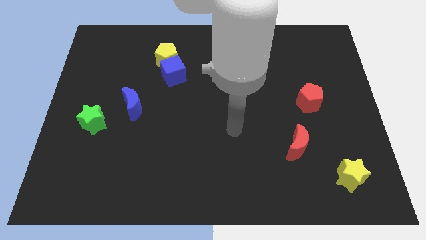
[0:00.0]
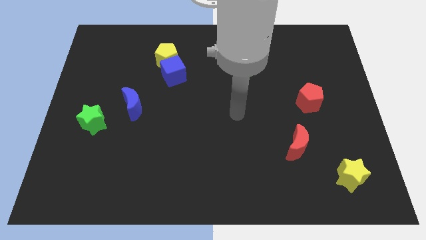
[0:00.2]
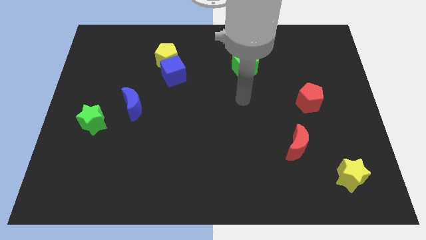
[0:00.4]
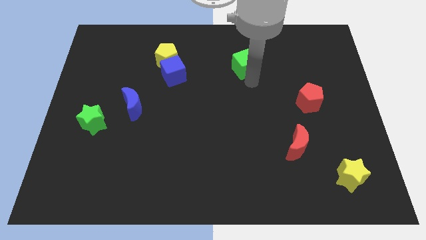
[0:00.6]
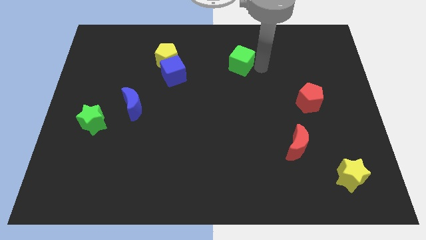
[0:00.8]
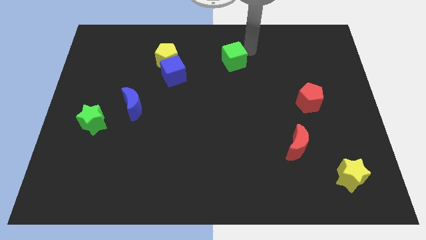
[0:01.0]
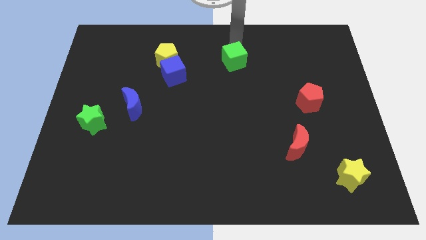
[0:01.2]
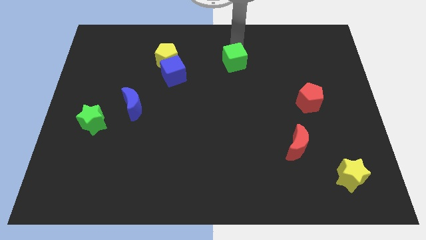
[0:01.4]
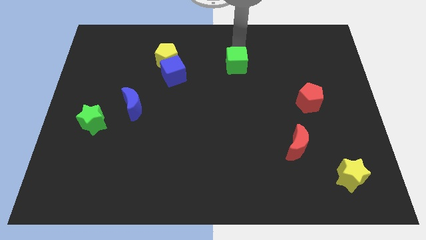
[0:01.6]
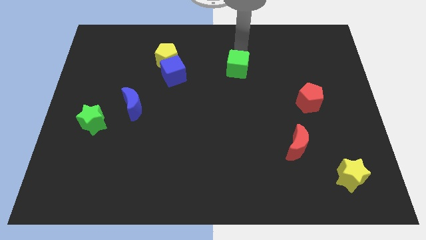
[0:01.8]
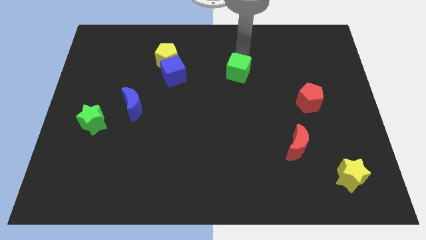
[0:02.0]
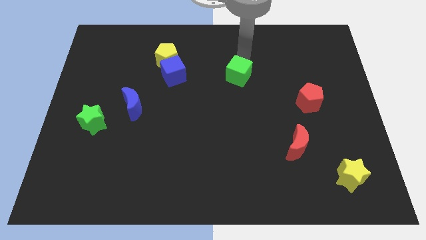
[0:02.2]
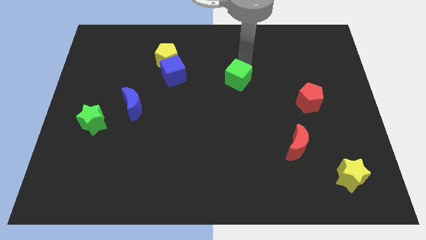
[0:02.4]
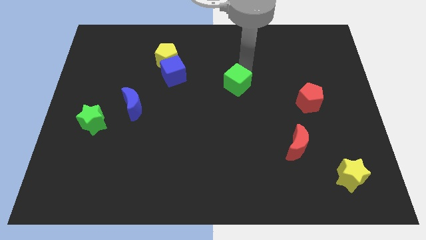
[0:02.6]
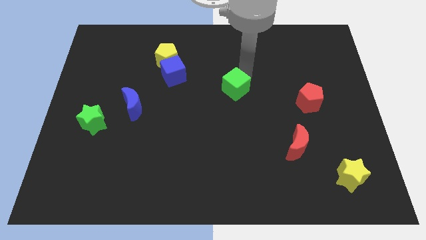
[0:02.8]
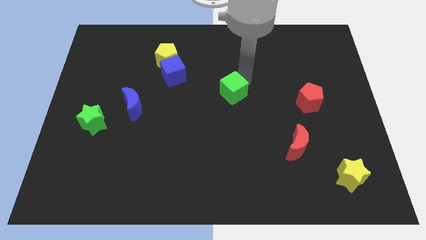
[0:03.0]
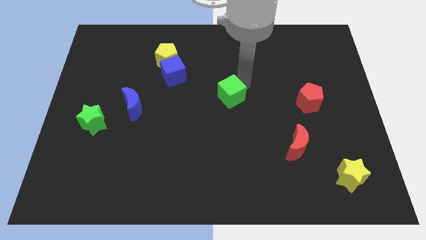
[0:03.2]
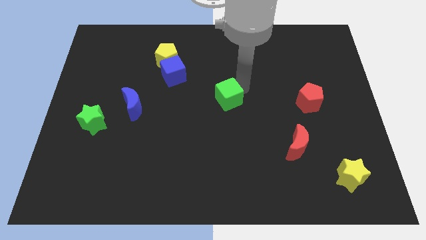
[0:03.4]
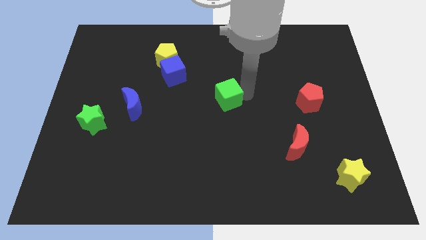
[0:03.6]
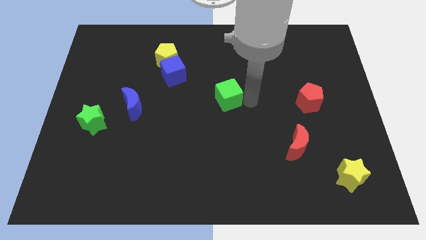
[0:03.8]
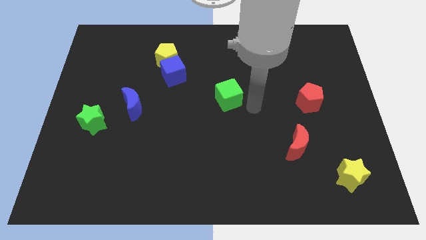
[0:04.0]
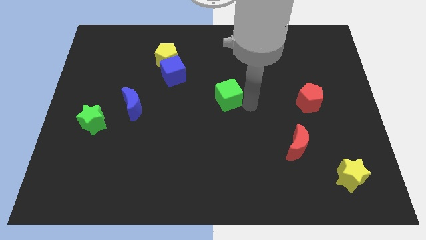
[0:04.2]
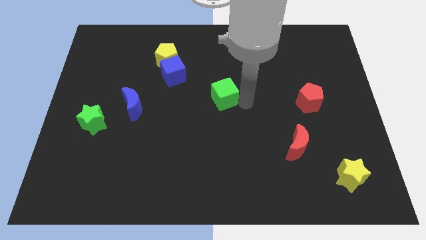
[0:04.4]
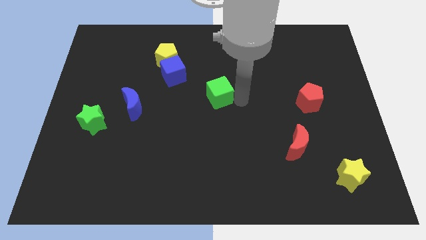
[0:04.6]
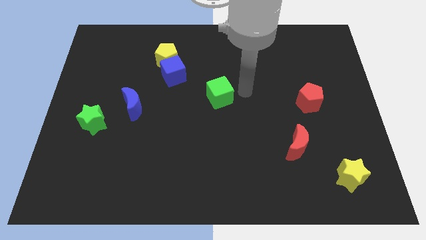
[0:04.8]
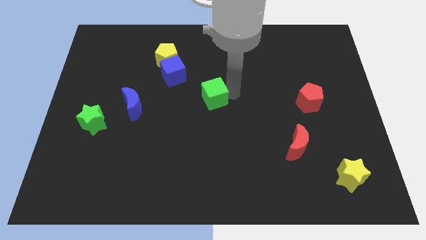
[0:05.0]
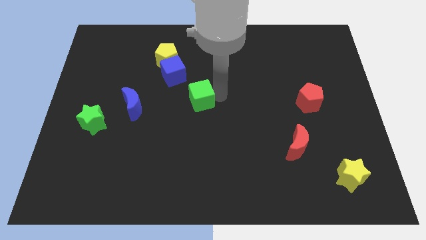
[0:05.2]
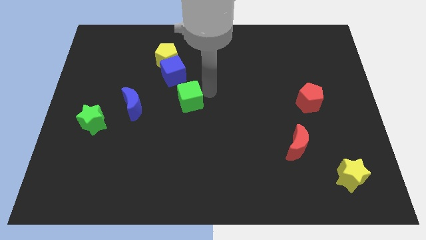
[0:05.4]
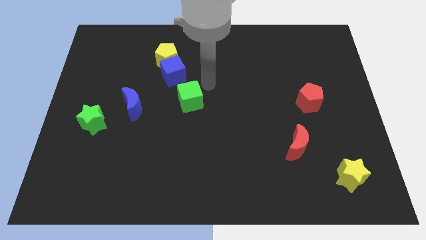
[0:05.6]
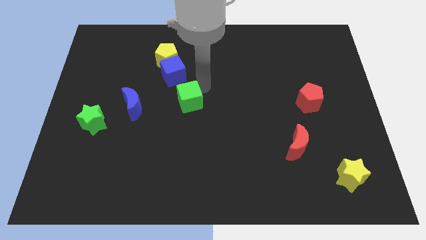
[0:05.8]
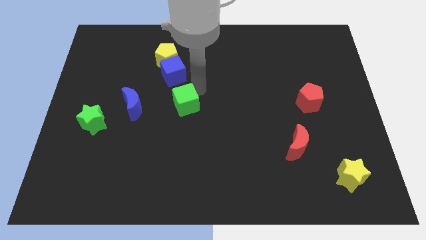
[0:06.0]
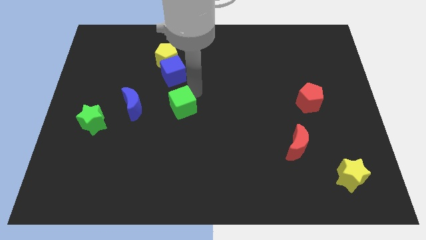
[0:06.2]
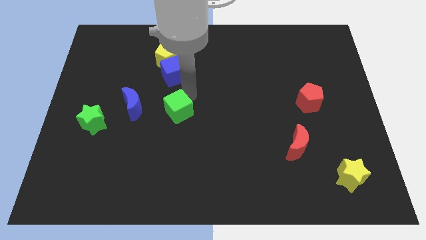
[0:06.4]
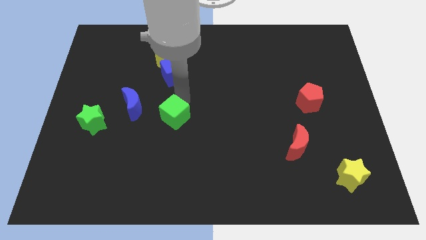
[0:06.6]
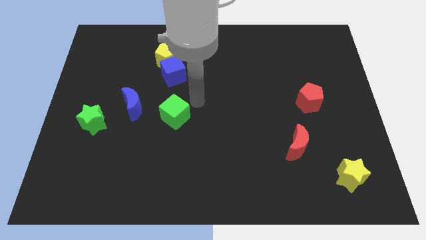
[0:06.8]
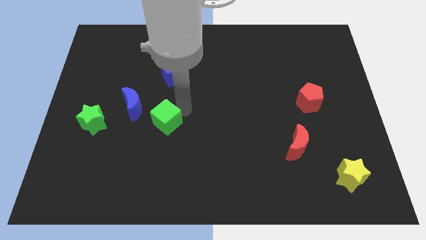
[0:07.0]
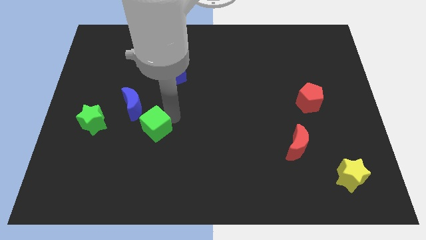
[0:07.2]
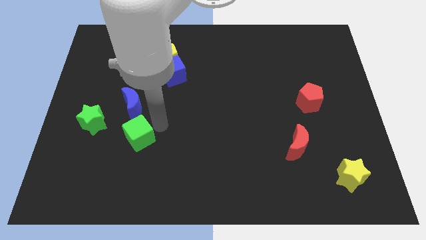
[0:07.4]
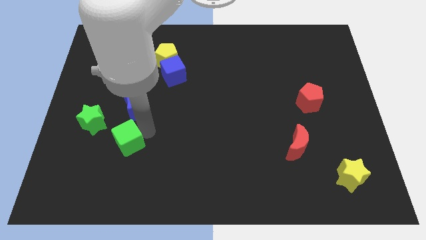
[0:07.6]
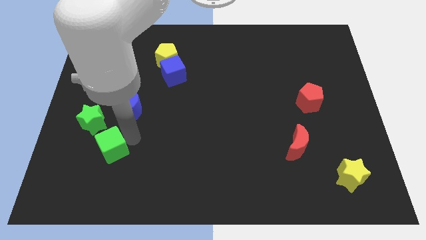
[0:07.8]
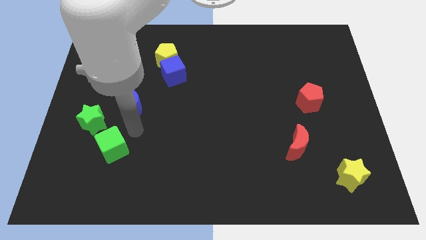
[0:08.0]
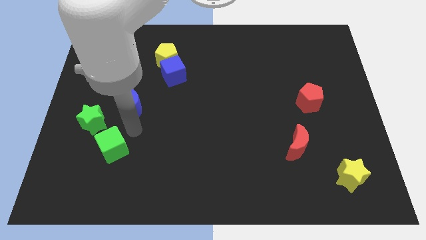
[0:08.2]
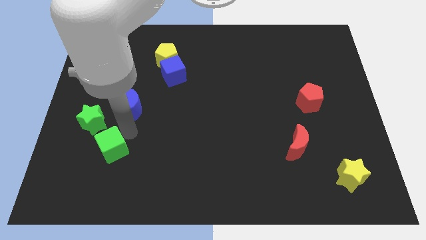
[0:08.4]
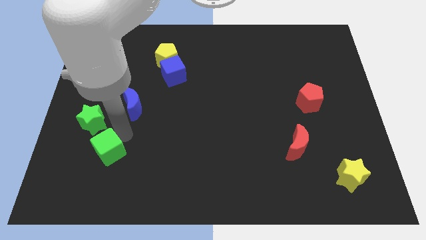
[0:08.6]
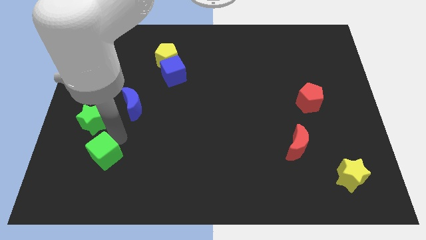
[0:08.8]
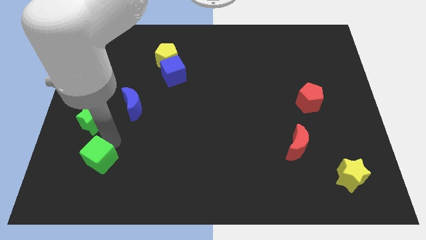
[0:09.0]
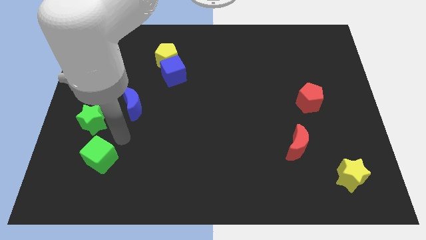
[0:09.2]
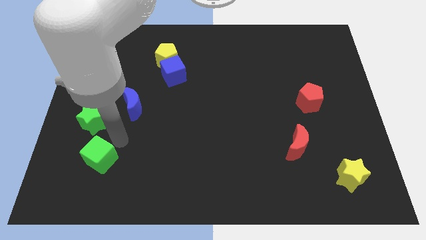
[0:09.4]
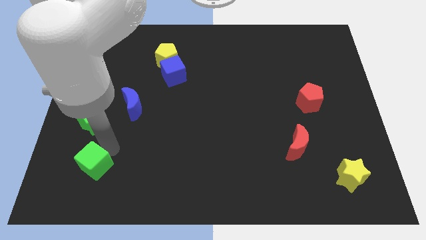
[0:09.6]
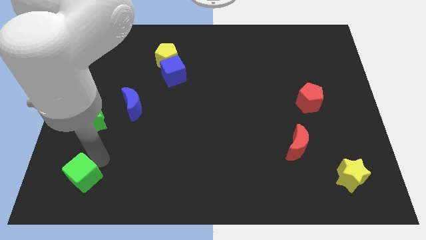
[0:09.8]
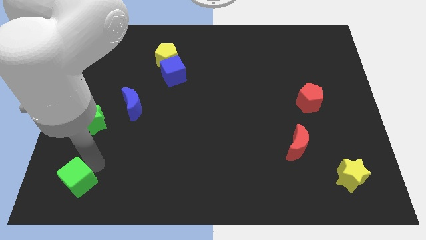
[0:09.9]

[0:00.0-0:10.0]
push the green cube to the bottom left of the board

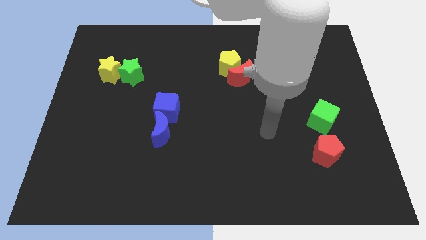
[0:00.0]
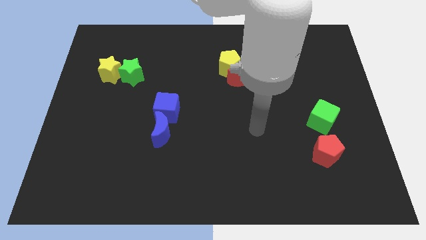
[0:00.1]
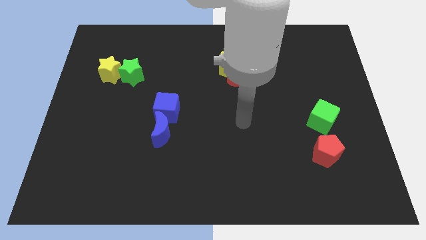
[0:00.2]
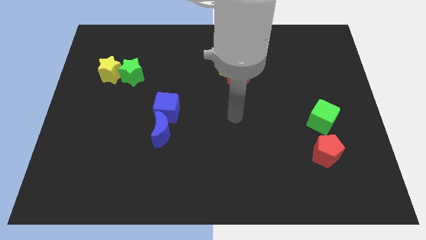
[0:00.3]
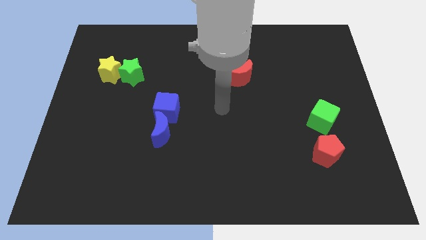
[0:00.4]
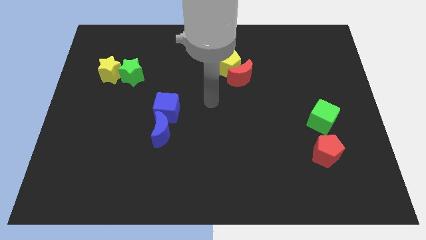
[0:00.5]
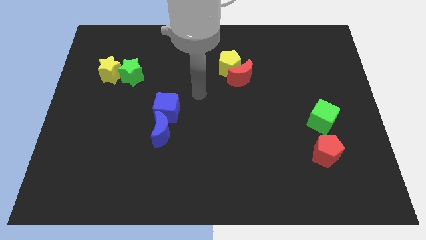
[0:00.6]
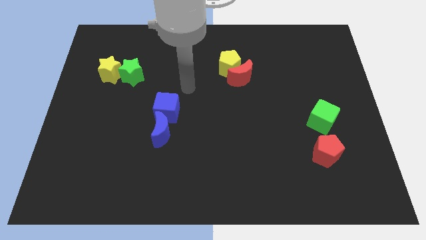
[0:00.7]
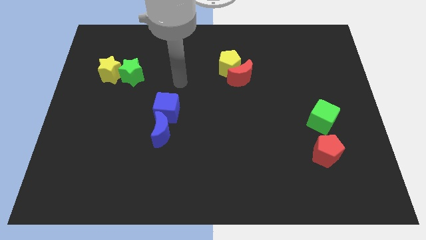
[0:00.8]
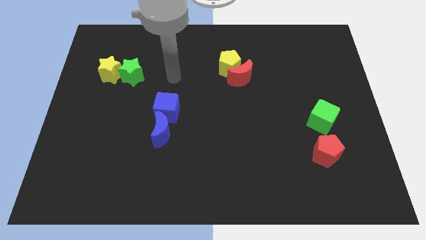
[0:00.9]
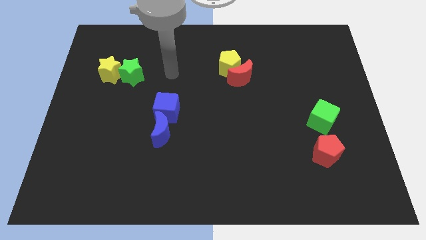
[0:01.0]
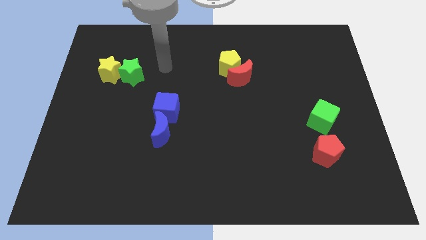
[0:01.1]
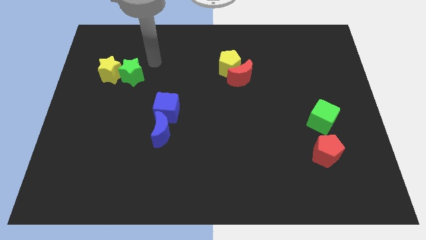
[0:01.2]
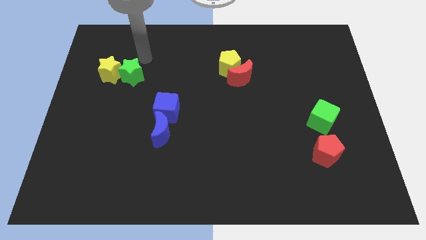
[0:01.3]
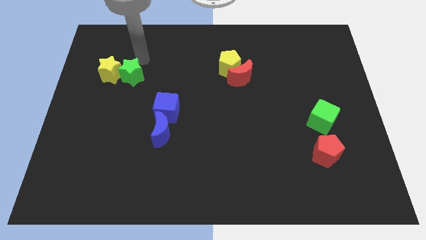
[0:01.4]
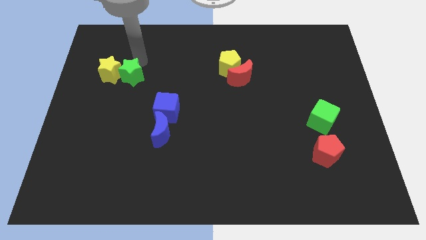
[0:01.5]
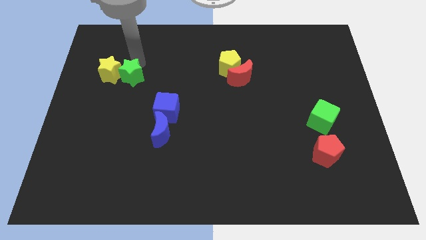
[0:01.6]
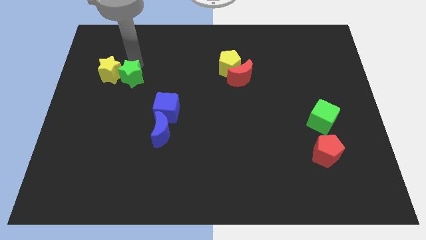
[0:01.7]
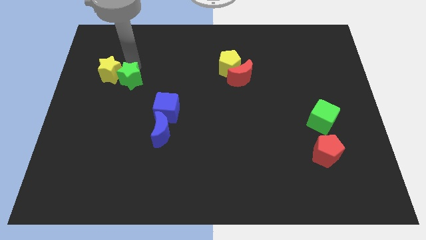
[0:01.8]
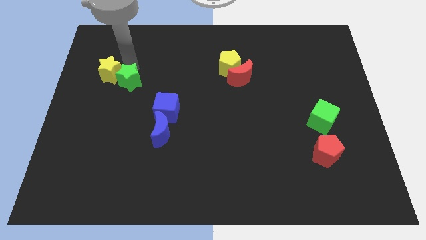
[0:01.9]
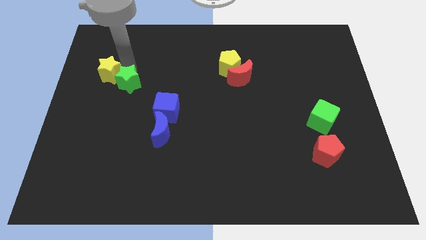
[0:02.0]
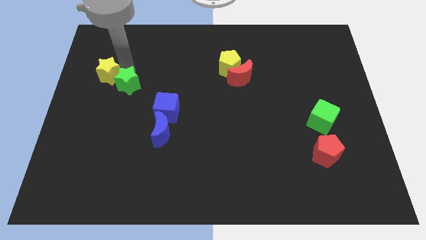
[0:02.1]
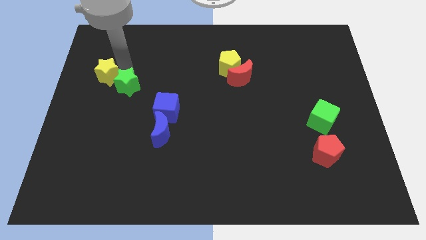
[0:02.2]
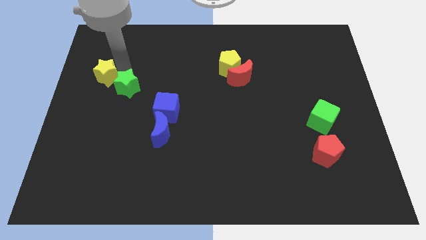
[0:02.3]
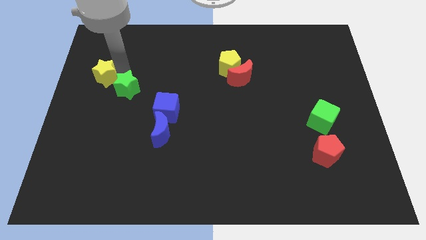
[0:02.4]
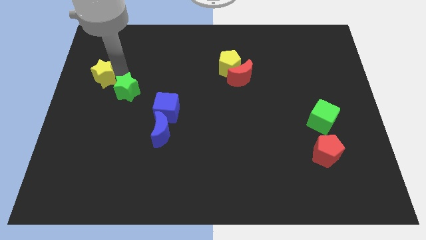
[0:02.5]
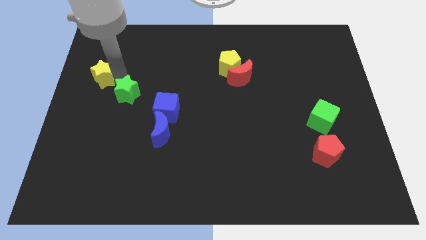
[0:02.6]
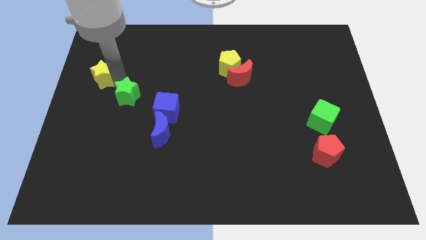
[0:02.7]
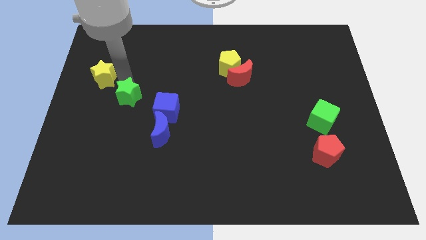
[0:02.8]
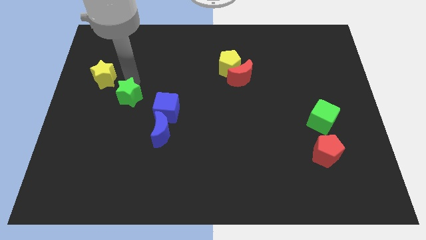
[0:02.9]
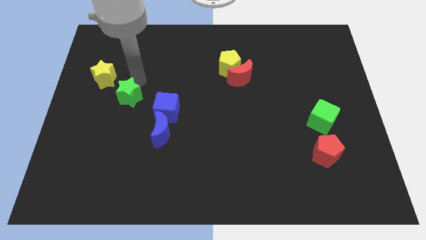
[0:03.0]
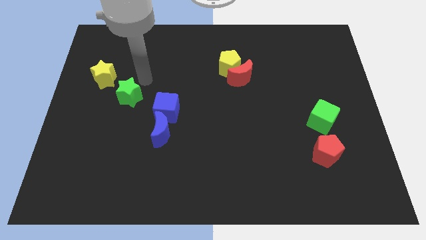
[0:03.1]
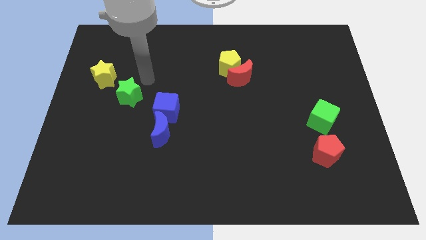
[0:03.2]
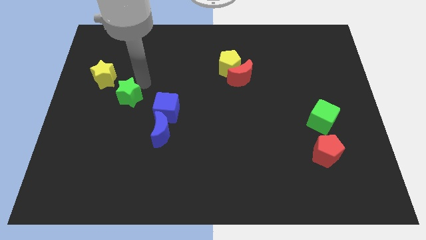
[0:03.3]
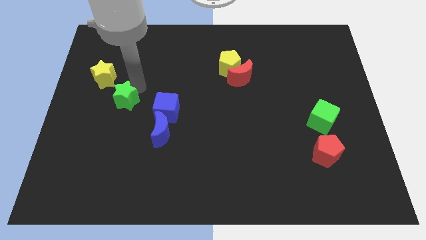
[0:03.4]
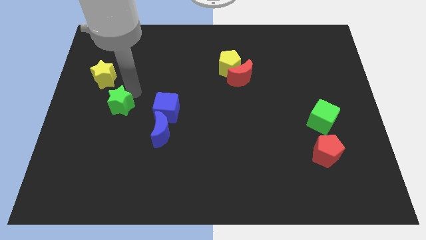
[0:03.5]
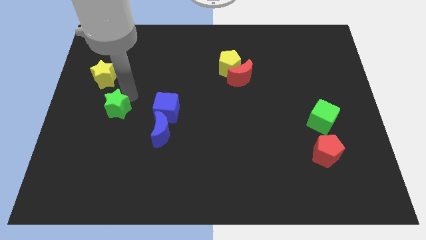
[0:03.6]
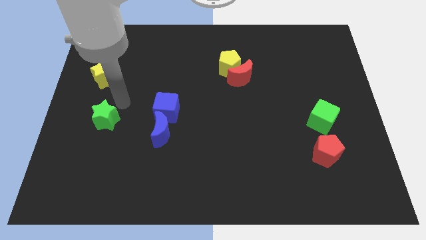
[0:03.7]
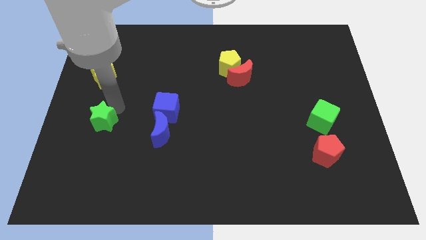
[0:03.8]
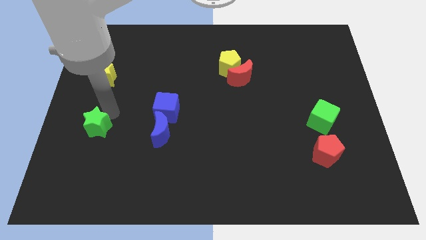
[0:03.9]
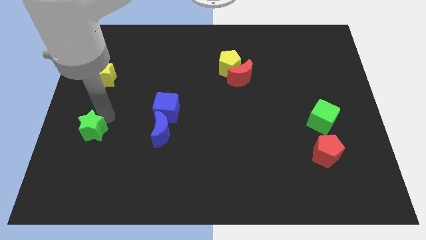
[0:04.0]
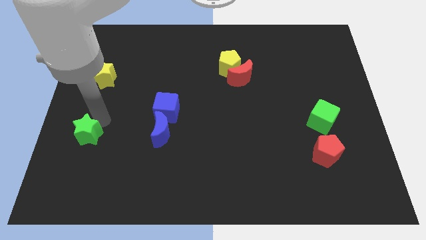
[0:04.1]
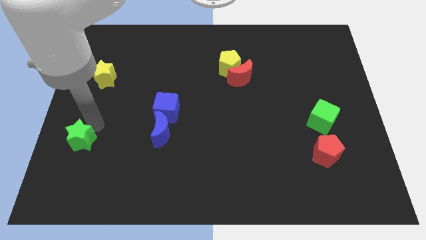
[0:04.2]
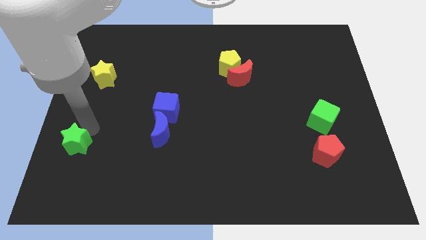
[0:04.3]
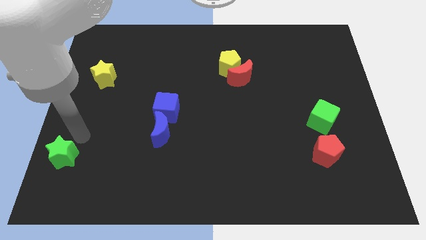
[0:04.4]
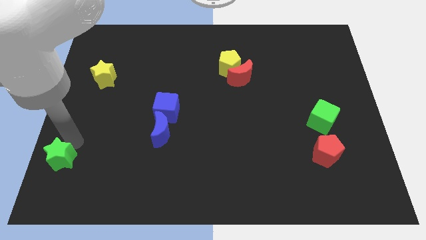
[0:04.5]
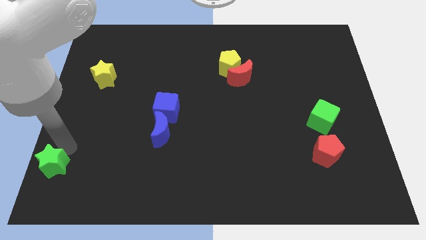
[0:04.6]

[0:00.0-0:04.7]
slide the green star to the bottom left
